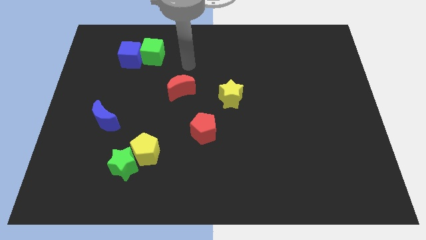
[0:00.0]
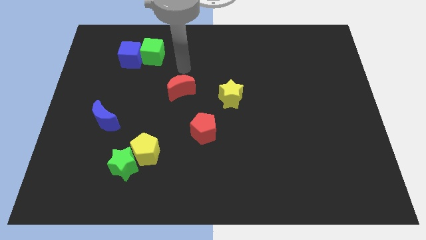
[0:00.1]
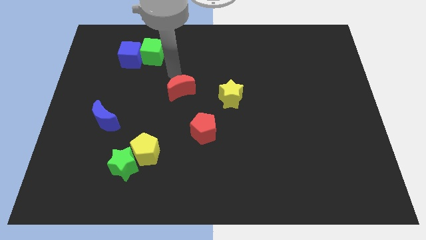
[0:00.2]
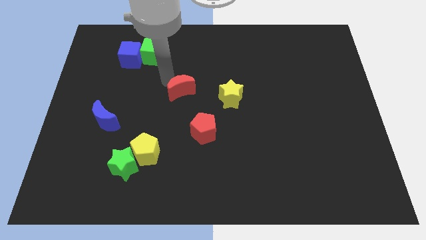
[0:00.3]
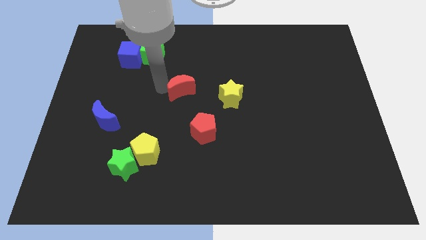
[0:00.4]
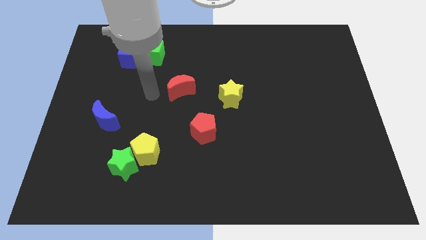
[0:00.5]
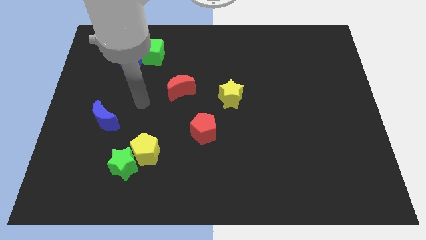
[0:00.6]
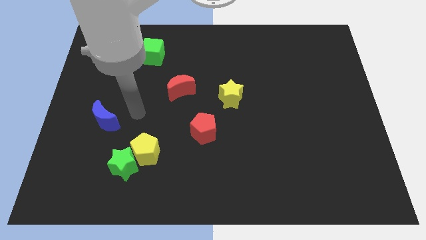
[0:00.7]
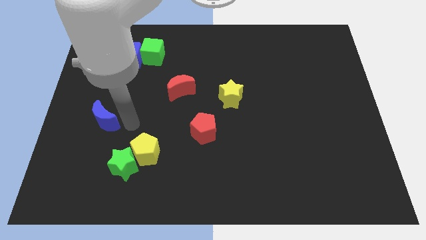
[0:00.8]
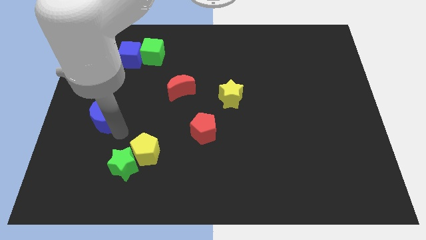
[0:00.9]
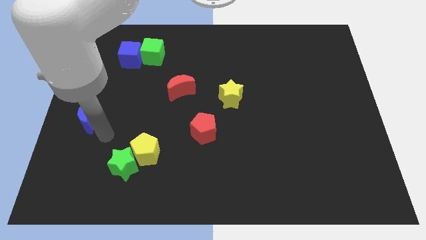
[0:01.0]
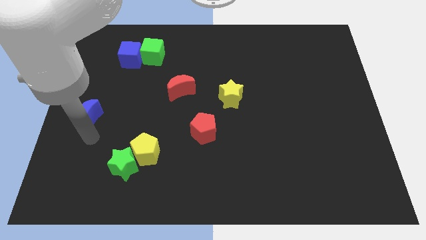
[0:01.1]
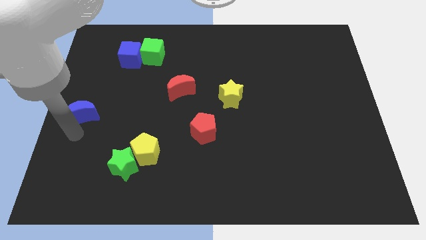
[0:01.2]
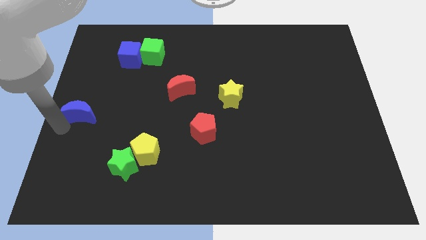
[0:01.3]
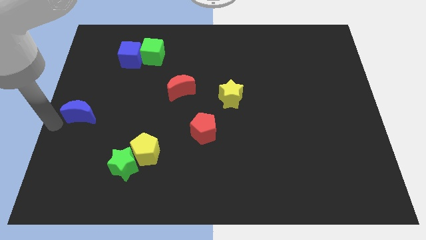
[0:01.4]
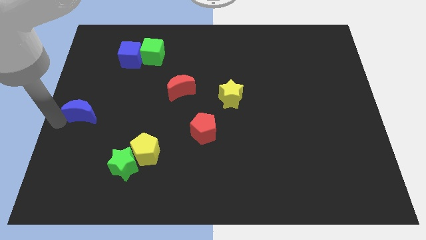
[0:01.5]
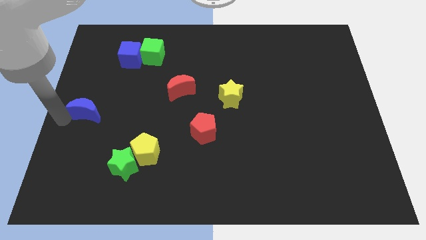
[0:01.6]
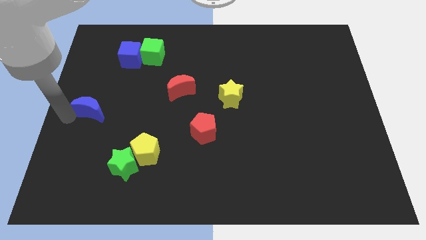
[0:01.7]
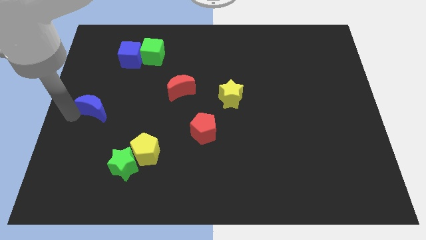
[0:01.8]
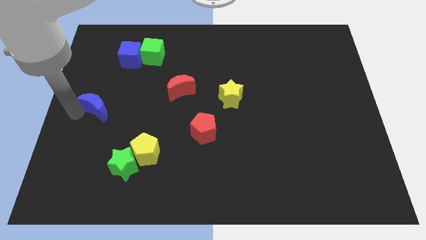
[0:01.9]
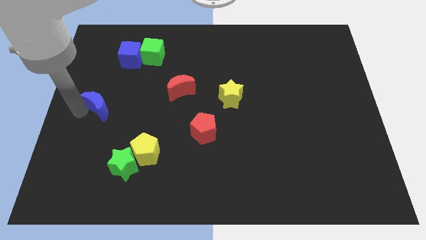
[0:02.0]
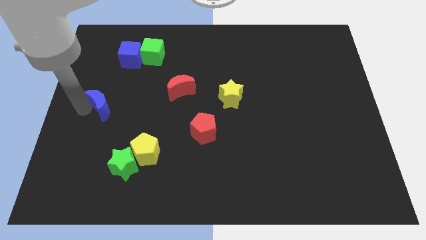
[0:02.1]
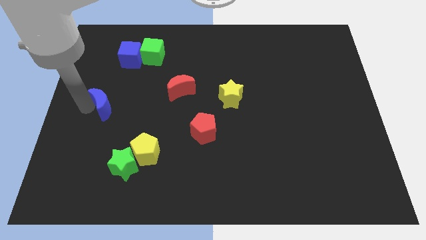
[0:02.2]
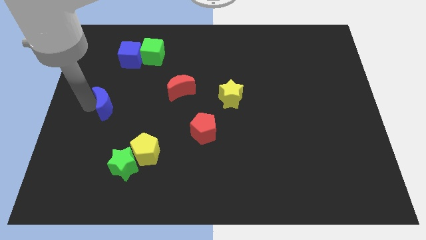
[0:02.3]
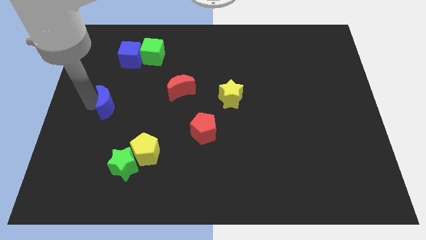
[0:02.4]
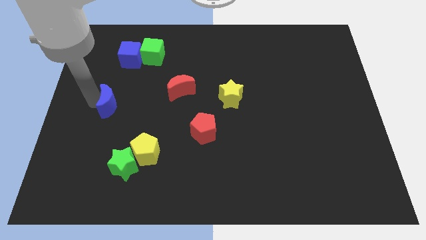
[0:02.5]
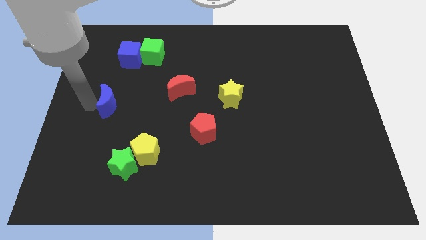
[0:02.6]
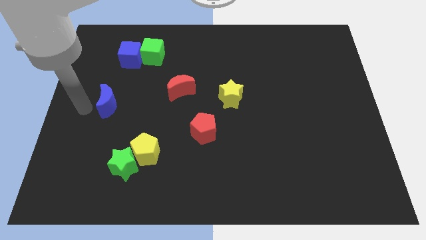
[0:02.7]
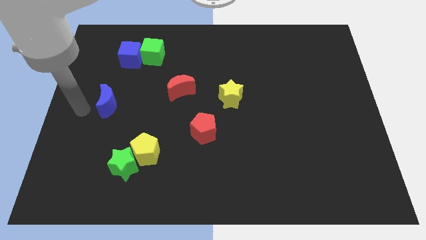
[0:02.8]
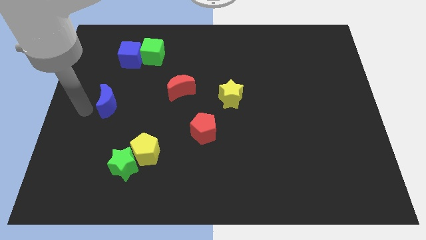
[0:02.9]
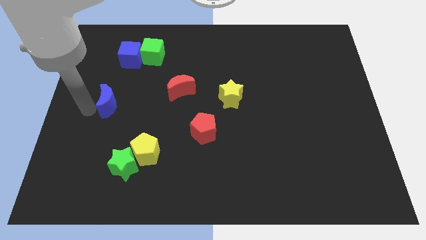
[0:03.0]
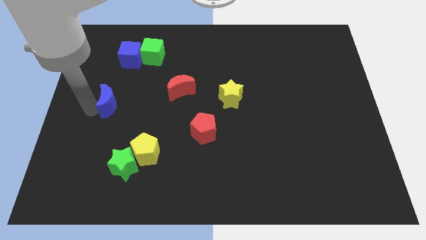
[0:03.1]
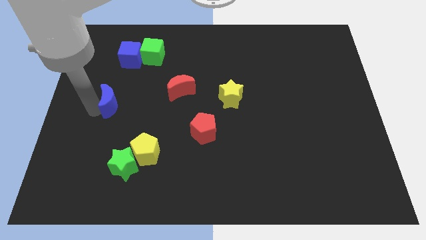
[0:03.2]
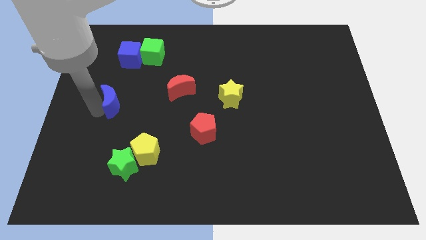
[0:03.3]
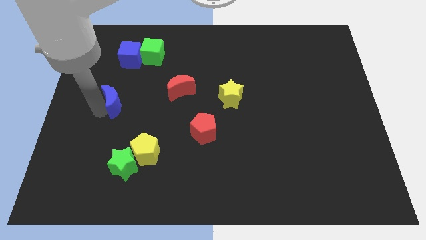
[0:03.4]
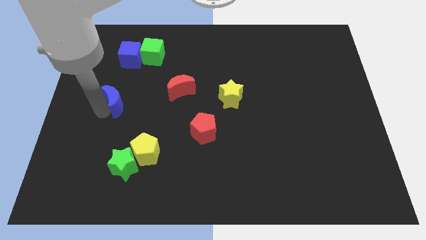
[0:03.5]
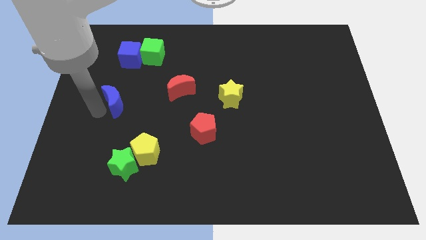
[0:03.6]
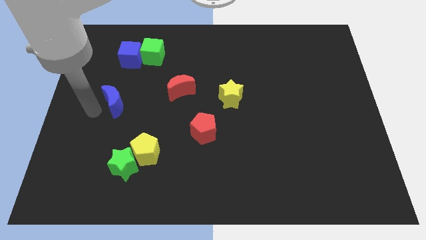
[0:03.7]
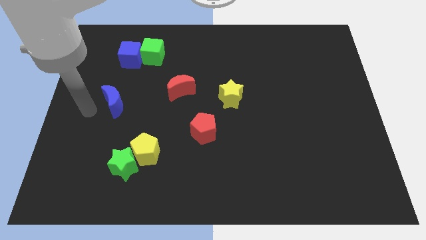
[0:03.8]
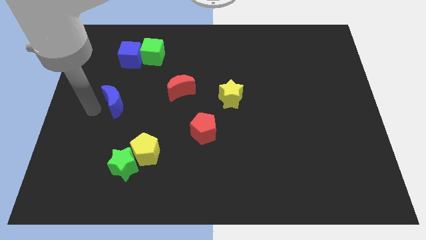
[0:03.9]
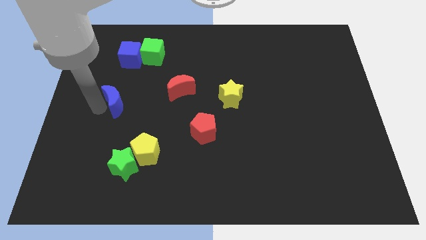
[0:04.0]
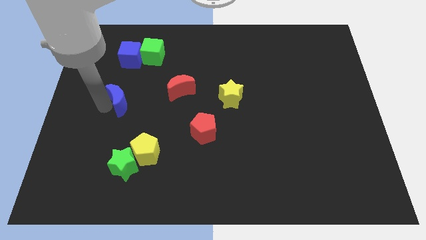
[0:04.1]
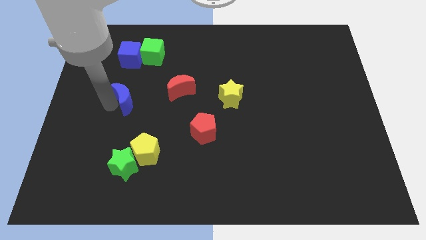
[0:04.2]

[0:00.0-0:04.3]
slightly push the blue moon diagonally upwards and right

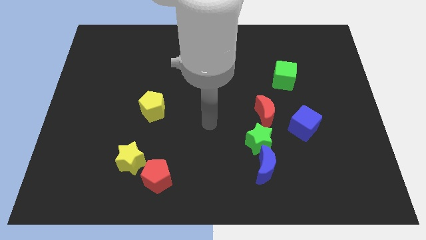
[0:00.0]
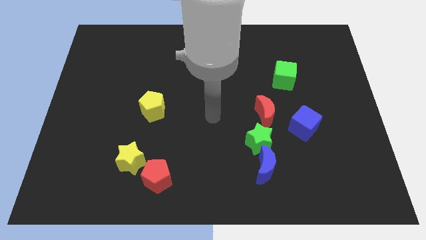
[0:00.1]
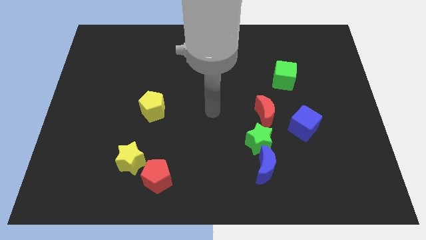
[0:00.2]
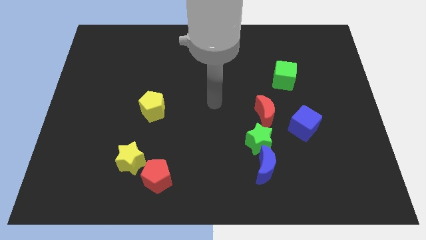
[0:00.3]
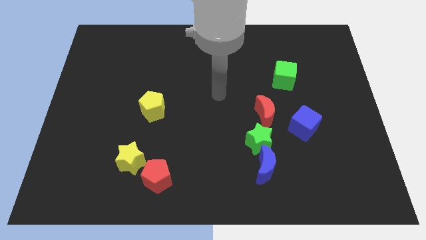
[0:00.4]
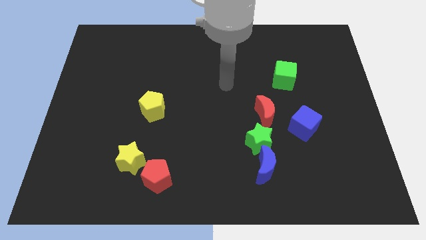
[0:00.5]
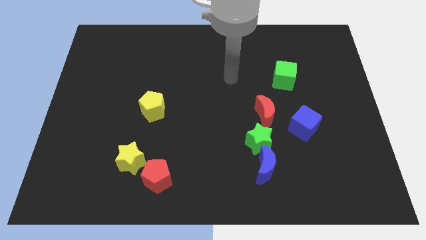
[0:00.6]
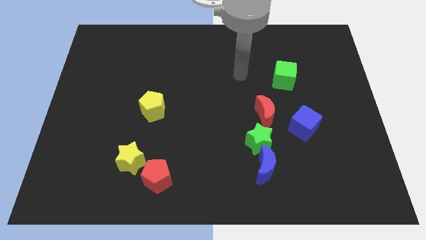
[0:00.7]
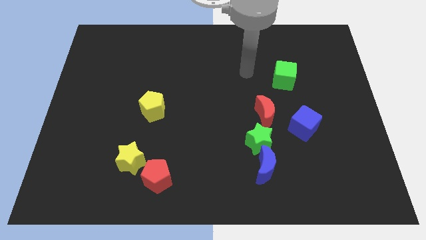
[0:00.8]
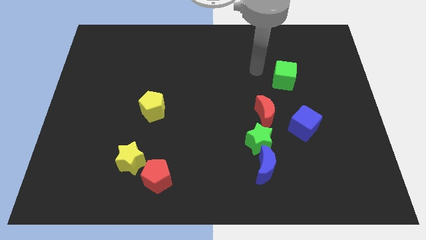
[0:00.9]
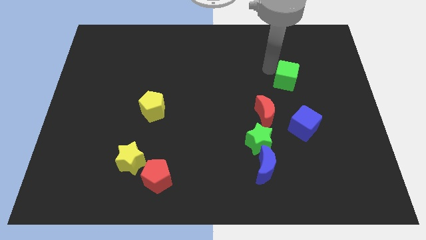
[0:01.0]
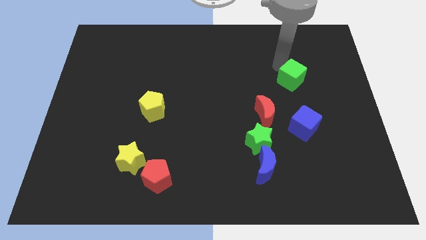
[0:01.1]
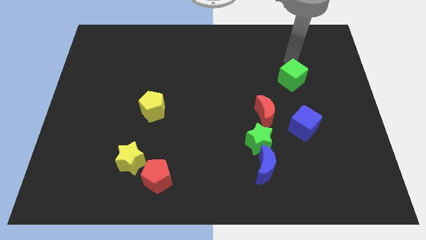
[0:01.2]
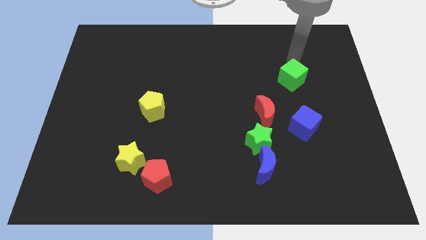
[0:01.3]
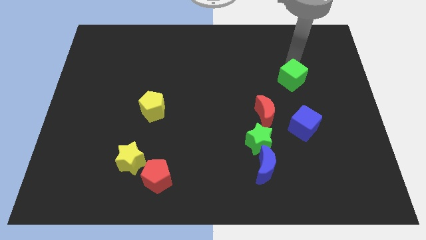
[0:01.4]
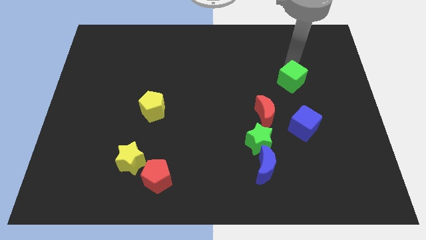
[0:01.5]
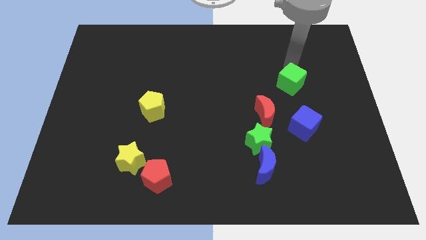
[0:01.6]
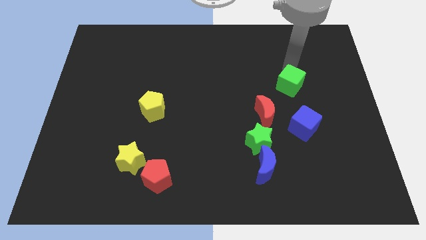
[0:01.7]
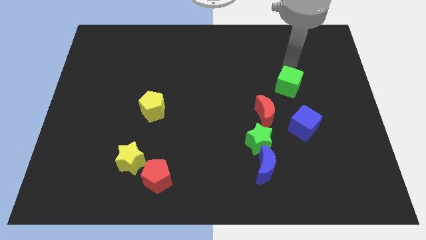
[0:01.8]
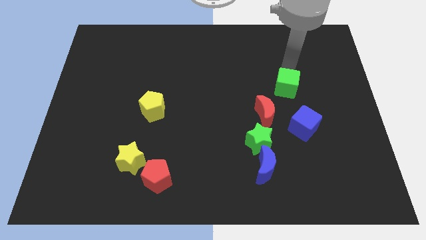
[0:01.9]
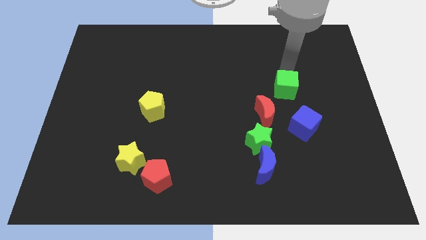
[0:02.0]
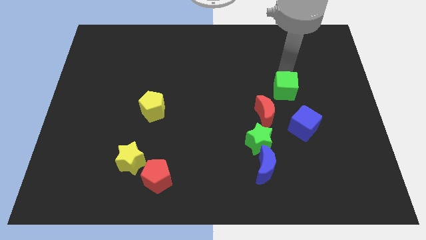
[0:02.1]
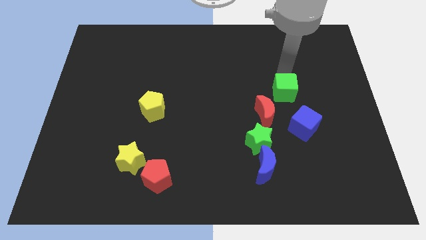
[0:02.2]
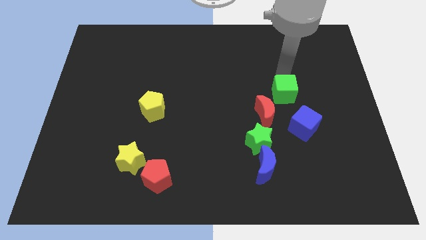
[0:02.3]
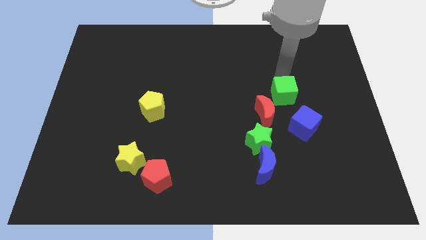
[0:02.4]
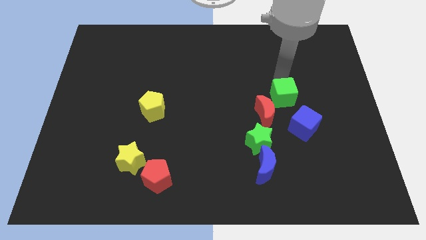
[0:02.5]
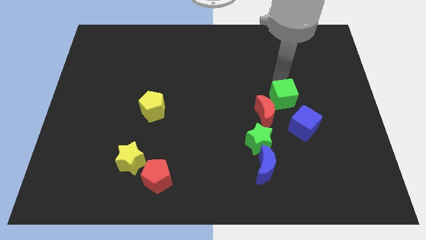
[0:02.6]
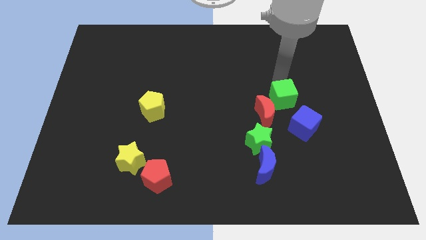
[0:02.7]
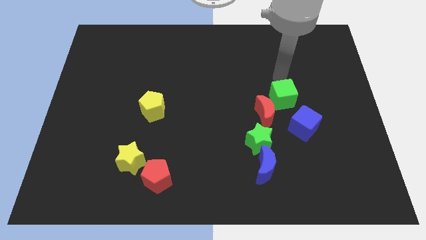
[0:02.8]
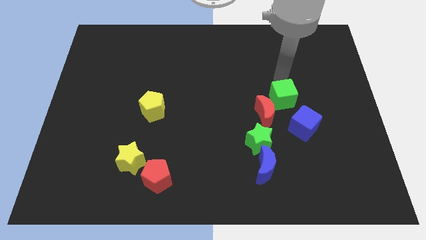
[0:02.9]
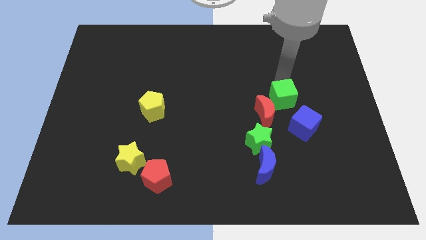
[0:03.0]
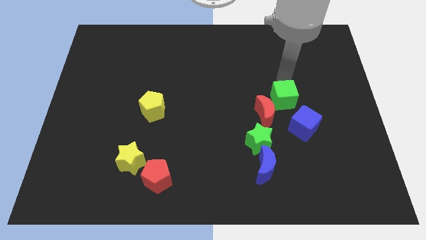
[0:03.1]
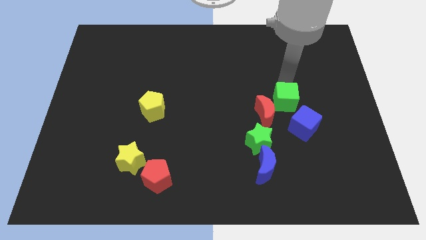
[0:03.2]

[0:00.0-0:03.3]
slightly push the green cube down
